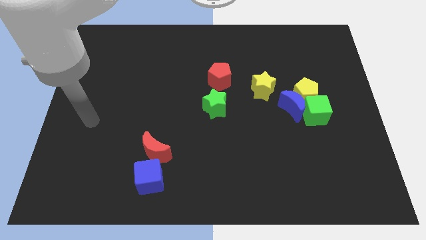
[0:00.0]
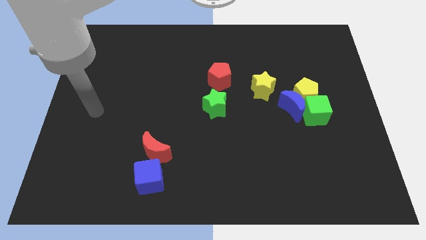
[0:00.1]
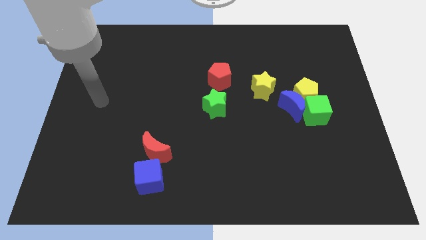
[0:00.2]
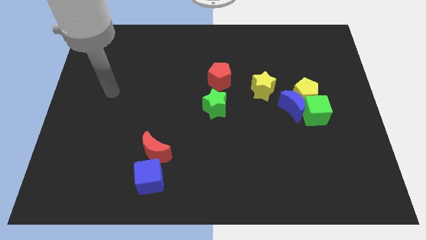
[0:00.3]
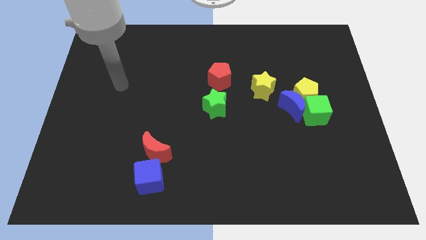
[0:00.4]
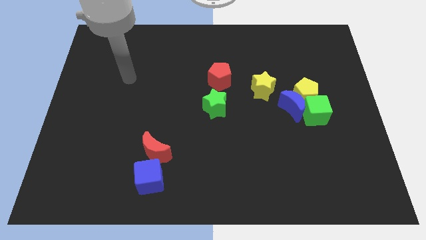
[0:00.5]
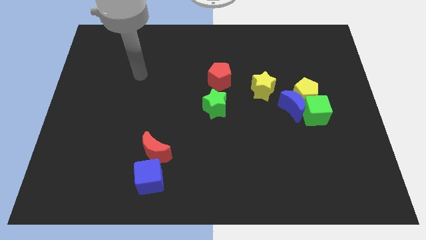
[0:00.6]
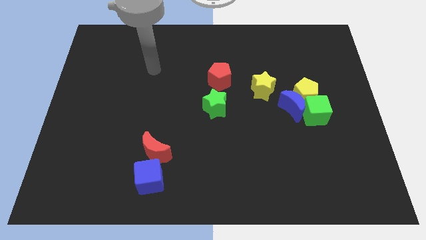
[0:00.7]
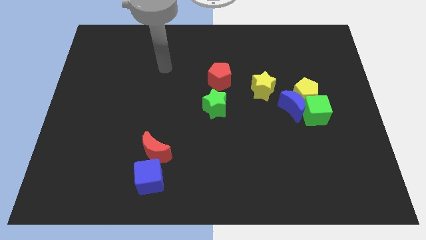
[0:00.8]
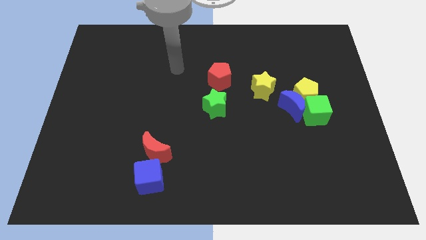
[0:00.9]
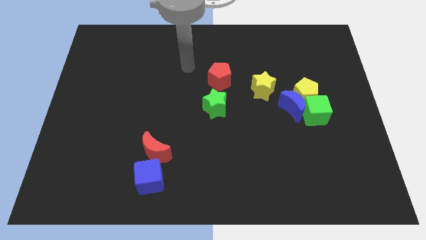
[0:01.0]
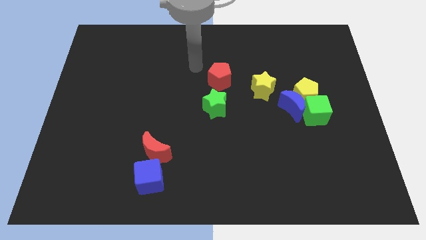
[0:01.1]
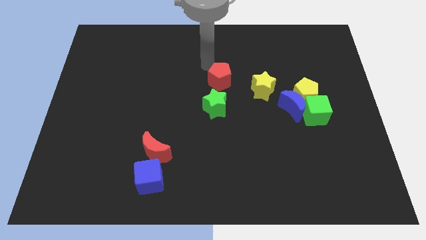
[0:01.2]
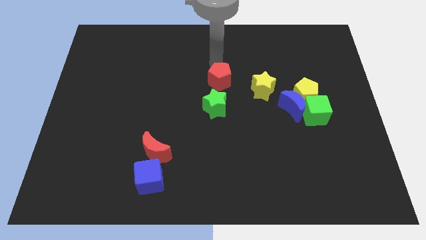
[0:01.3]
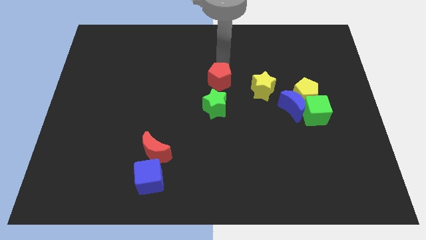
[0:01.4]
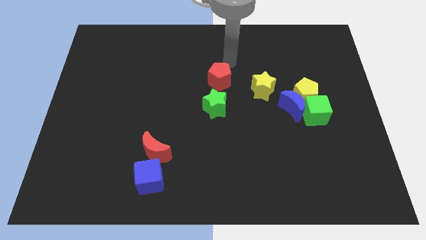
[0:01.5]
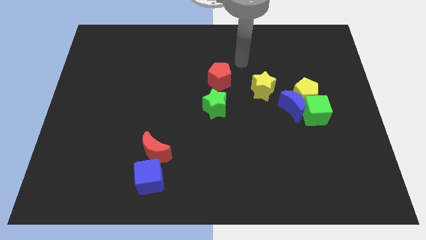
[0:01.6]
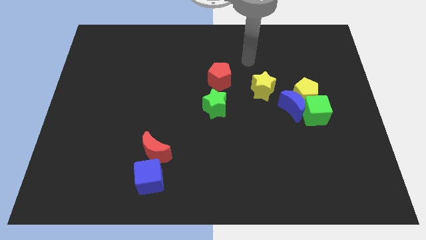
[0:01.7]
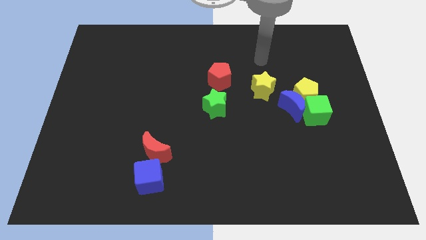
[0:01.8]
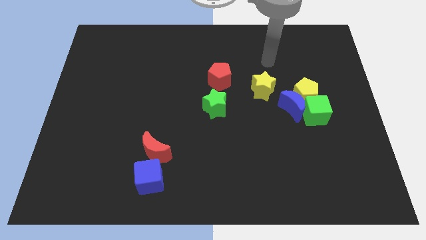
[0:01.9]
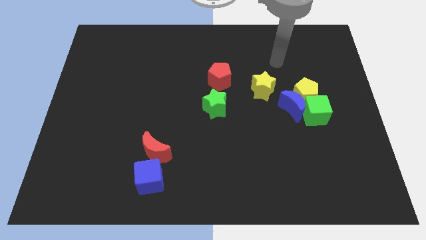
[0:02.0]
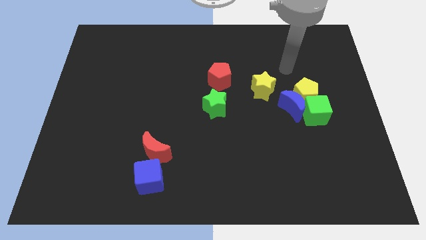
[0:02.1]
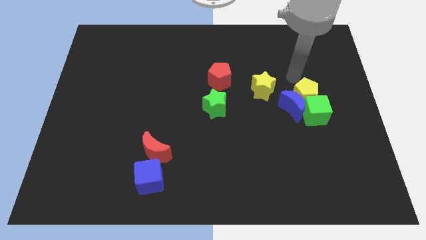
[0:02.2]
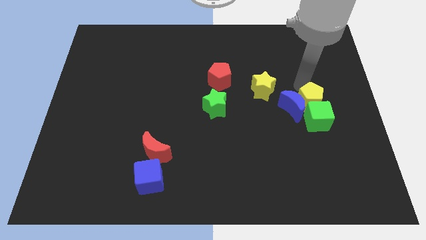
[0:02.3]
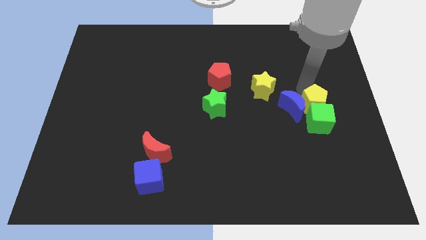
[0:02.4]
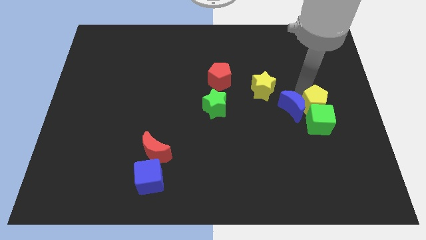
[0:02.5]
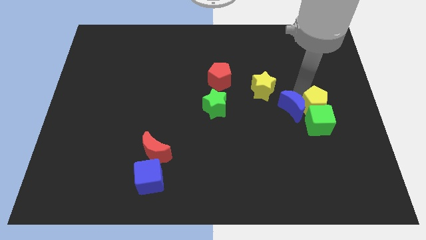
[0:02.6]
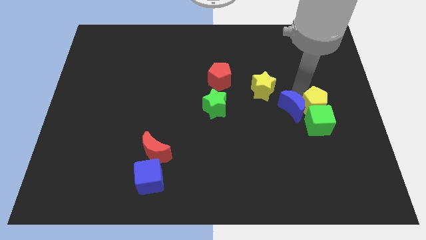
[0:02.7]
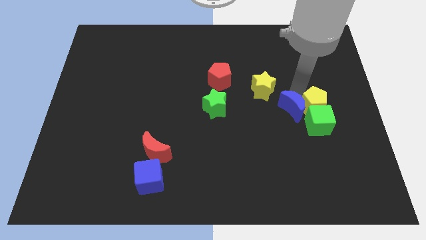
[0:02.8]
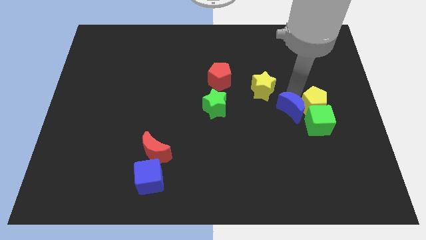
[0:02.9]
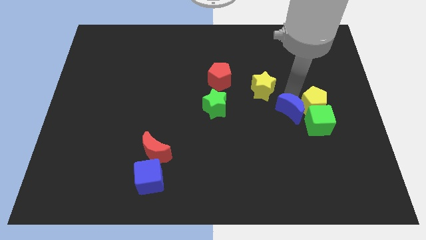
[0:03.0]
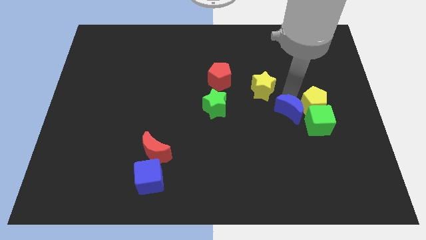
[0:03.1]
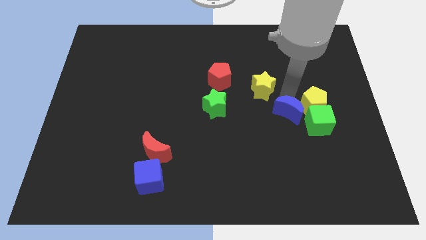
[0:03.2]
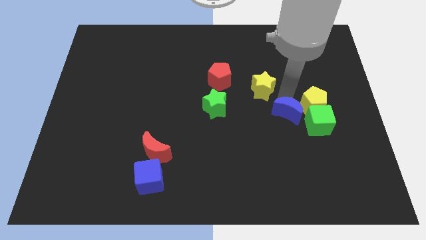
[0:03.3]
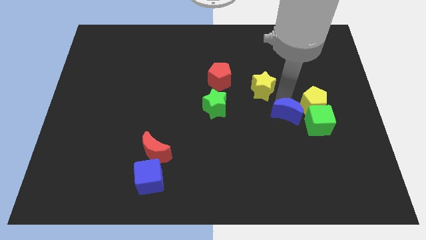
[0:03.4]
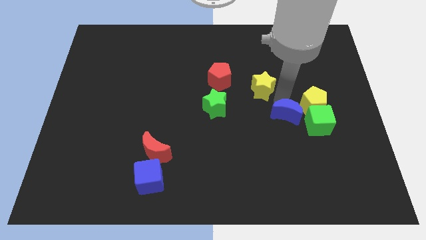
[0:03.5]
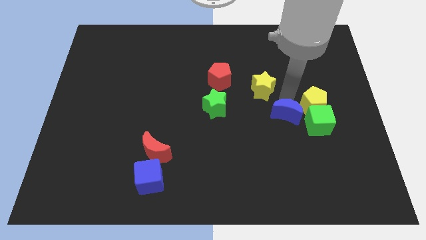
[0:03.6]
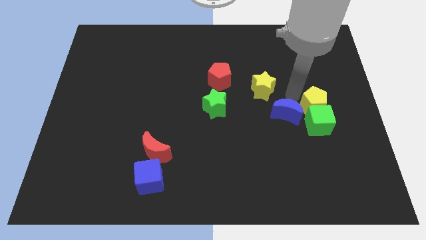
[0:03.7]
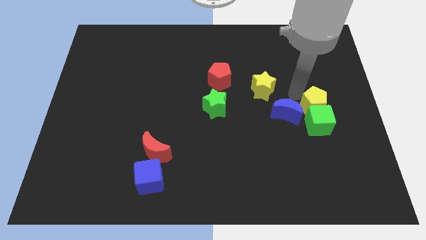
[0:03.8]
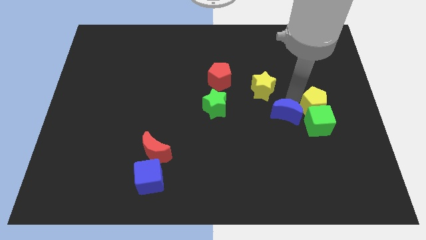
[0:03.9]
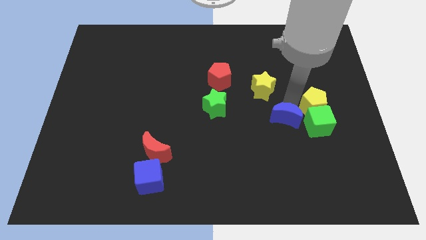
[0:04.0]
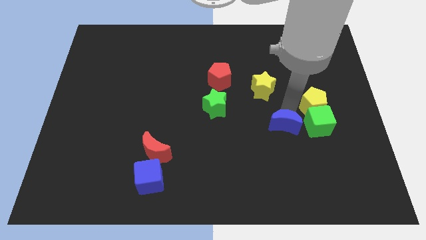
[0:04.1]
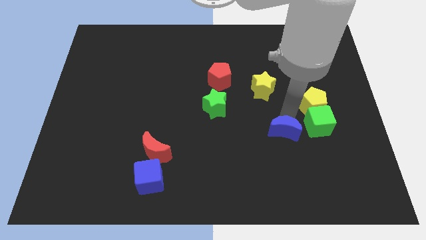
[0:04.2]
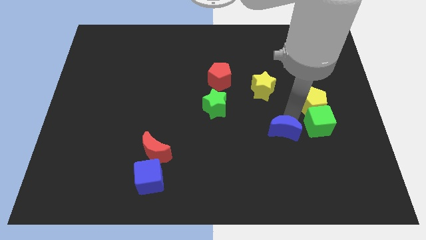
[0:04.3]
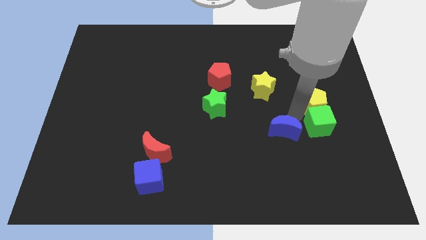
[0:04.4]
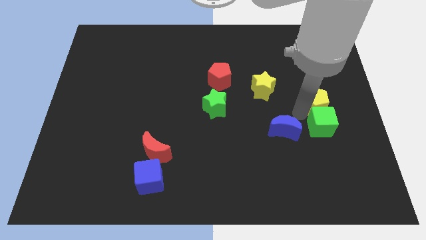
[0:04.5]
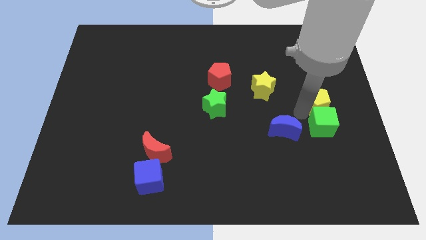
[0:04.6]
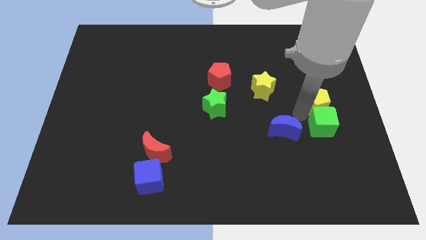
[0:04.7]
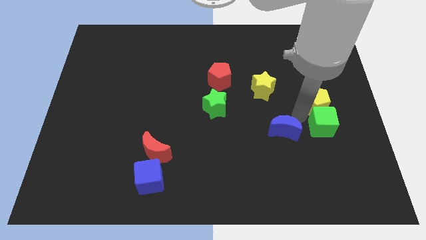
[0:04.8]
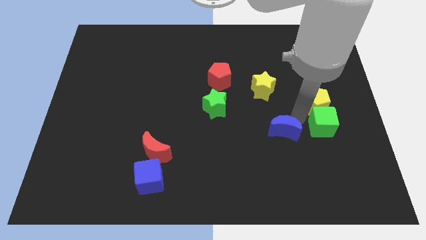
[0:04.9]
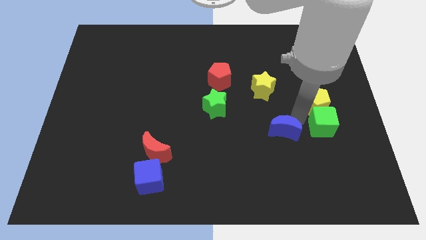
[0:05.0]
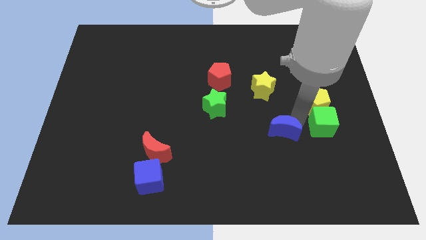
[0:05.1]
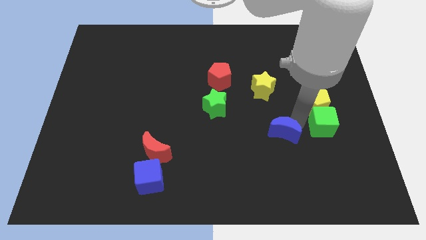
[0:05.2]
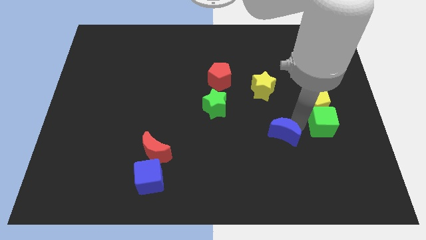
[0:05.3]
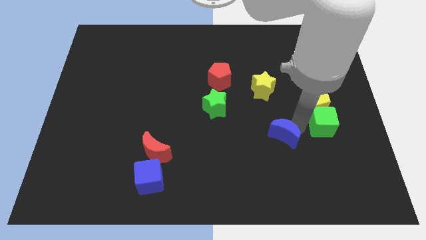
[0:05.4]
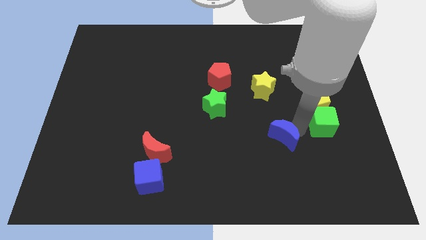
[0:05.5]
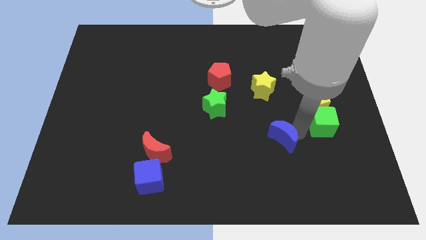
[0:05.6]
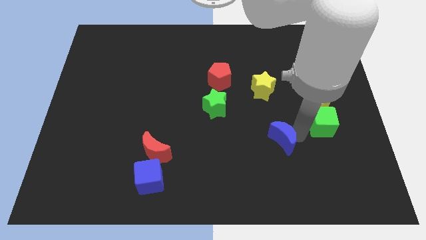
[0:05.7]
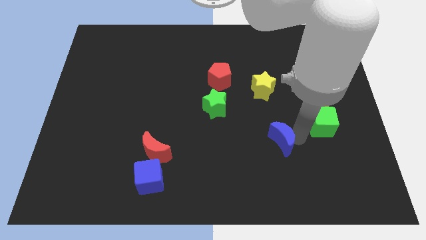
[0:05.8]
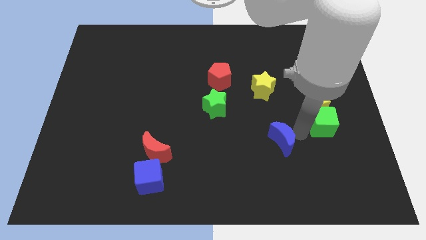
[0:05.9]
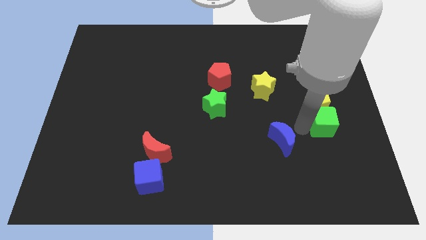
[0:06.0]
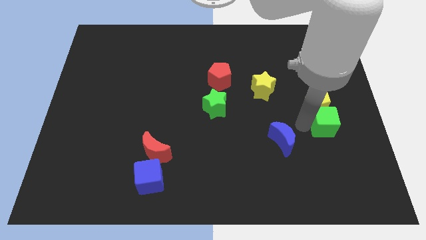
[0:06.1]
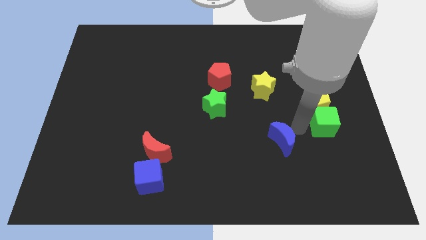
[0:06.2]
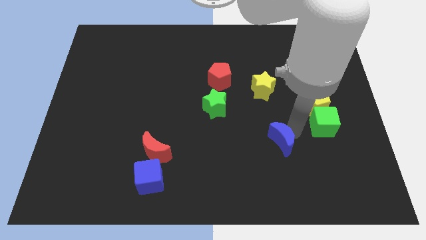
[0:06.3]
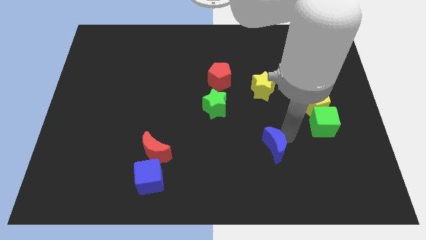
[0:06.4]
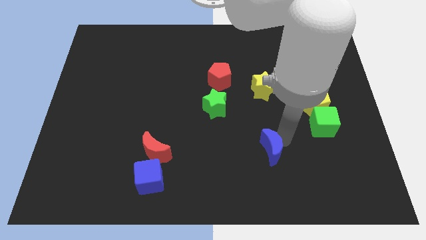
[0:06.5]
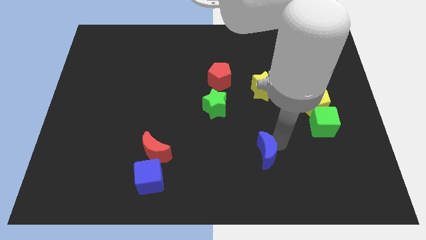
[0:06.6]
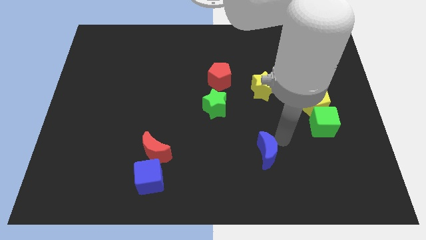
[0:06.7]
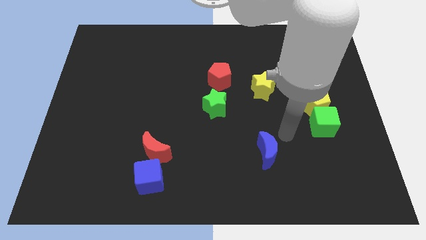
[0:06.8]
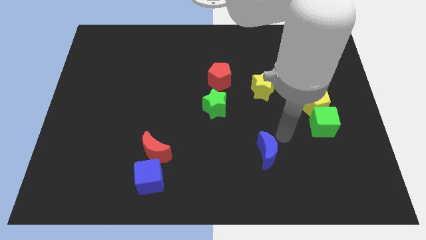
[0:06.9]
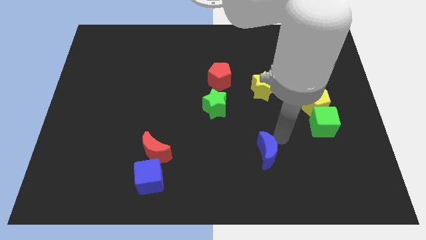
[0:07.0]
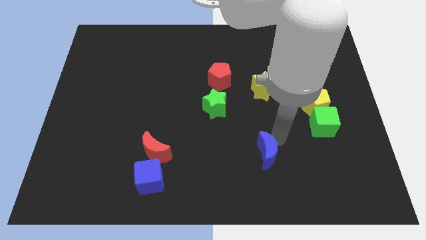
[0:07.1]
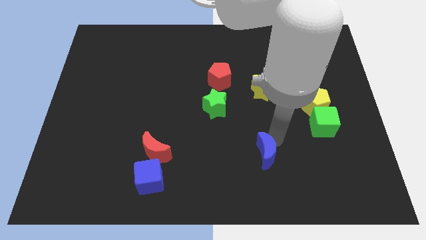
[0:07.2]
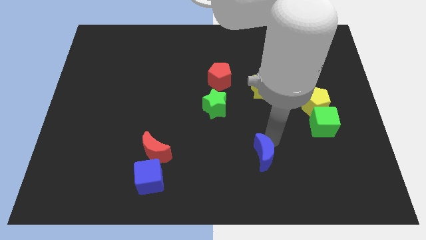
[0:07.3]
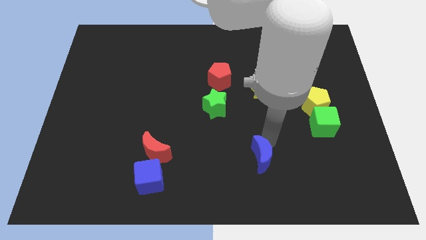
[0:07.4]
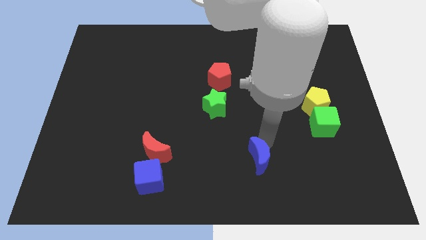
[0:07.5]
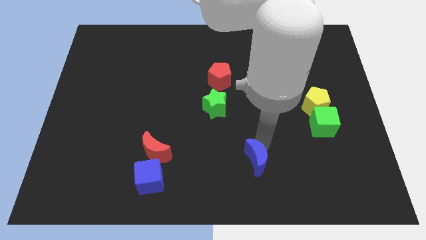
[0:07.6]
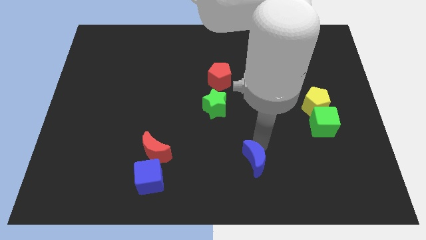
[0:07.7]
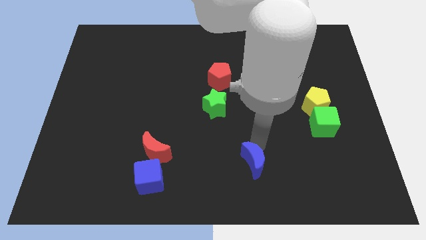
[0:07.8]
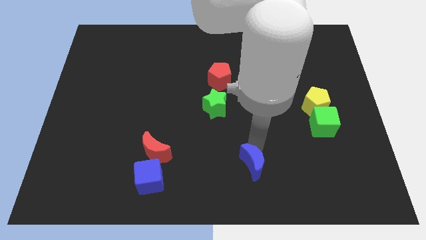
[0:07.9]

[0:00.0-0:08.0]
slide the blue moon to the bottom
